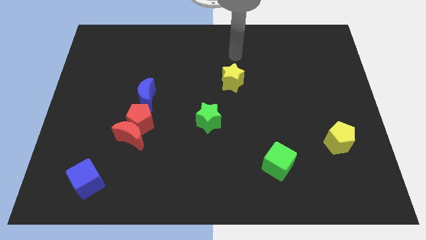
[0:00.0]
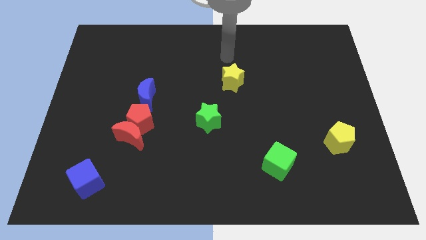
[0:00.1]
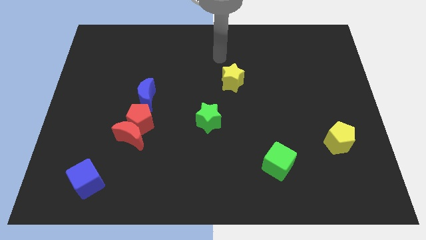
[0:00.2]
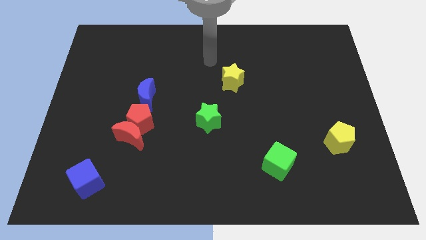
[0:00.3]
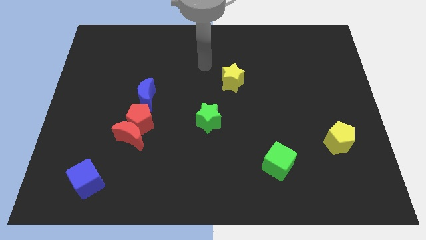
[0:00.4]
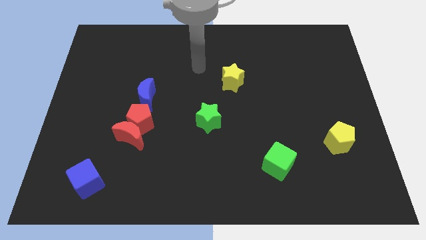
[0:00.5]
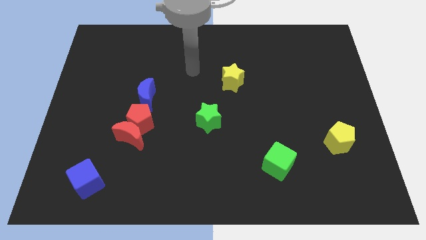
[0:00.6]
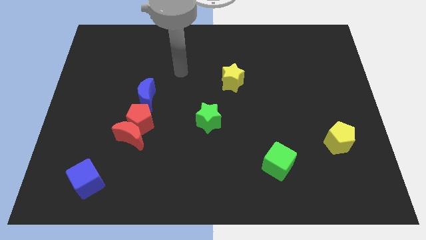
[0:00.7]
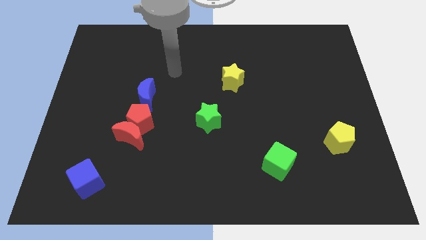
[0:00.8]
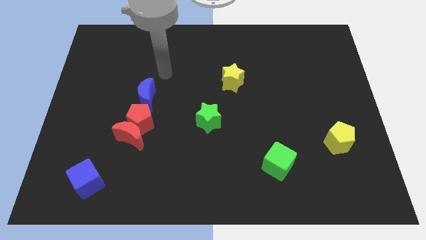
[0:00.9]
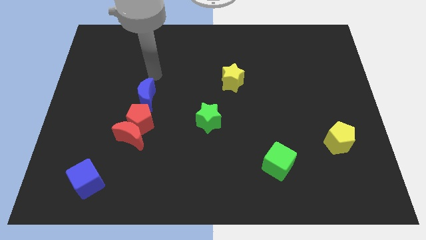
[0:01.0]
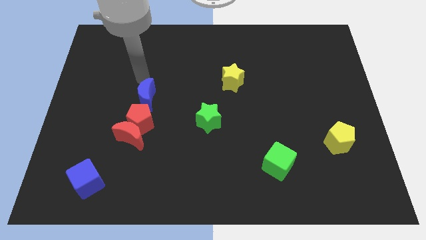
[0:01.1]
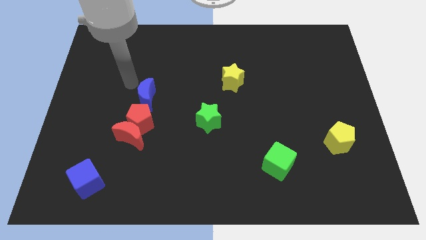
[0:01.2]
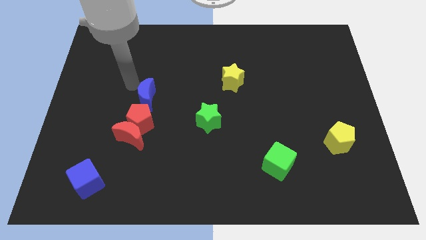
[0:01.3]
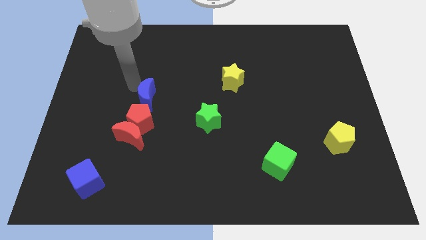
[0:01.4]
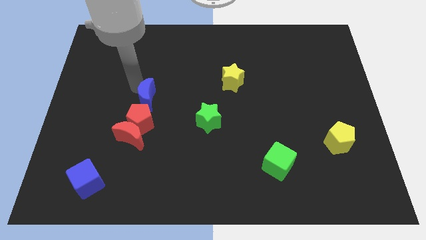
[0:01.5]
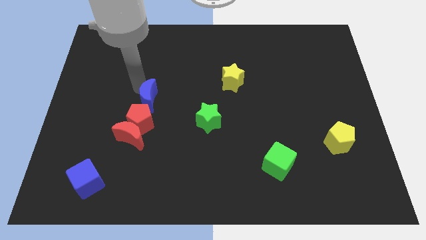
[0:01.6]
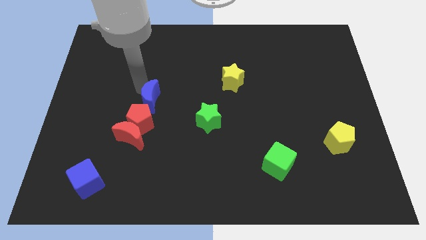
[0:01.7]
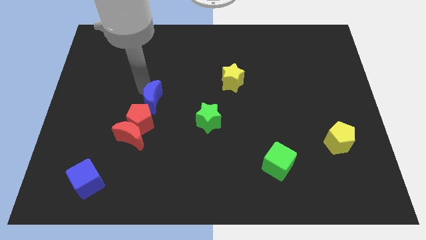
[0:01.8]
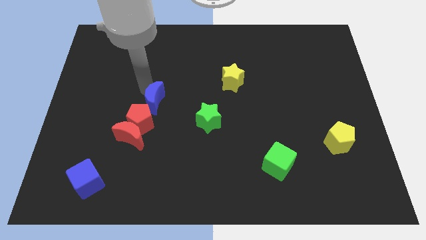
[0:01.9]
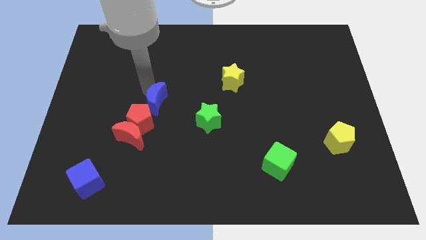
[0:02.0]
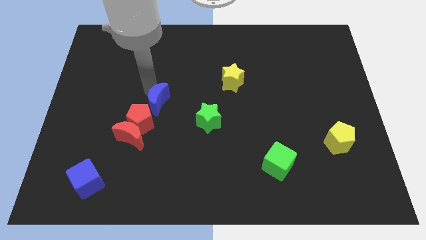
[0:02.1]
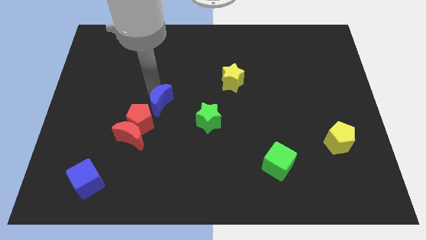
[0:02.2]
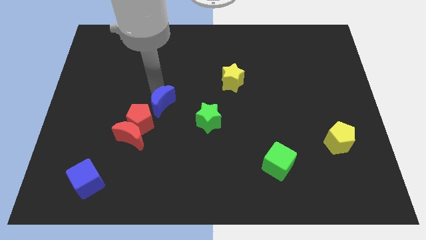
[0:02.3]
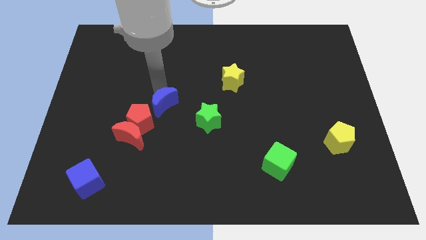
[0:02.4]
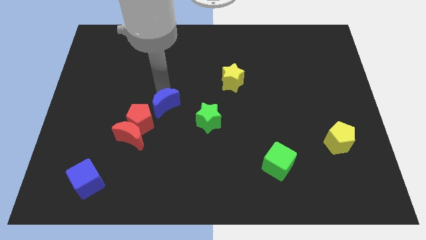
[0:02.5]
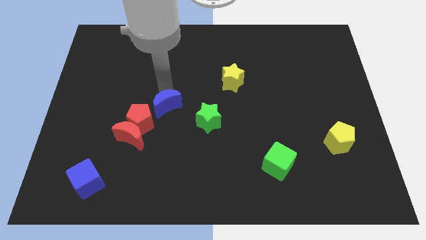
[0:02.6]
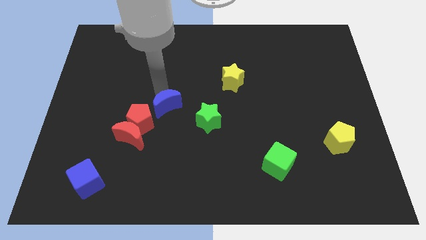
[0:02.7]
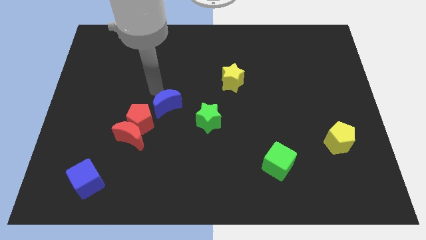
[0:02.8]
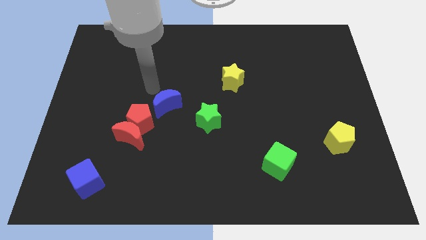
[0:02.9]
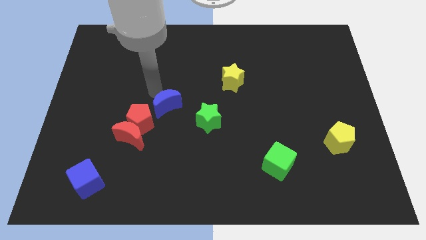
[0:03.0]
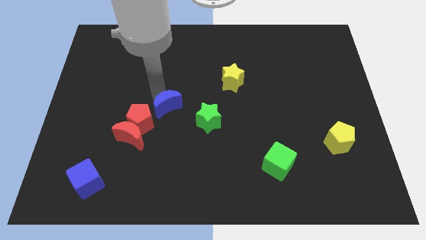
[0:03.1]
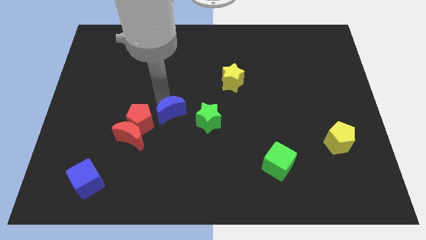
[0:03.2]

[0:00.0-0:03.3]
slightly move the blue moon downwards and to the right diagonally

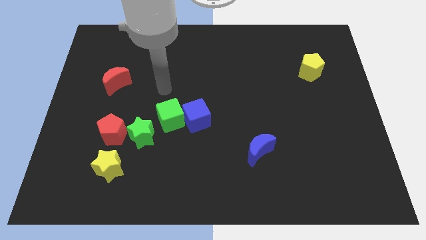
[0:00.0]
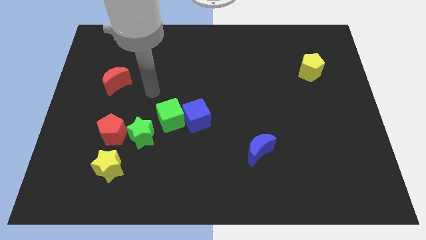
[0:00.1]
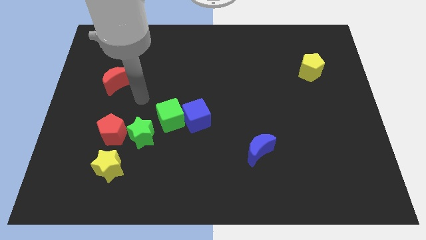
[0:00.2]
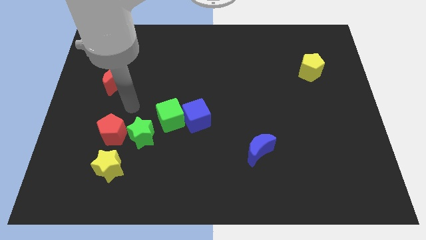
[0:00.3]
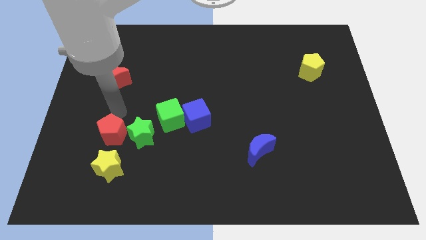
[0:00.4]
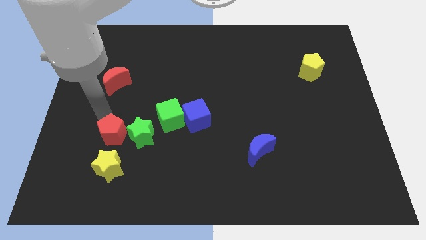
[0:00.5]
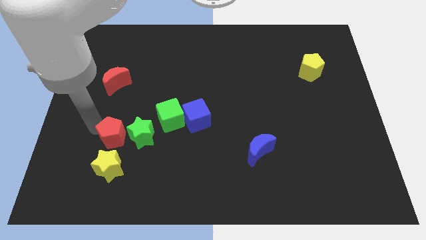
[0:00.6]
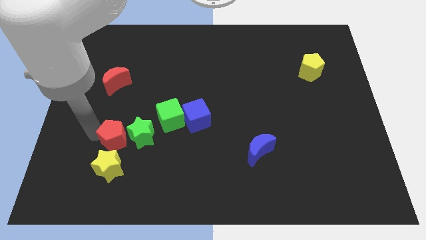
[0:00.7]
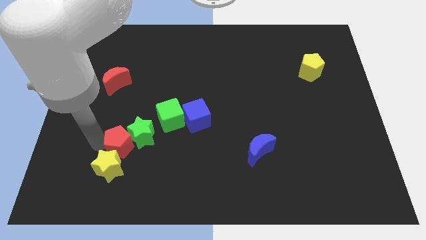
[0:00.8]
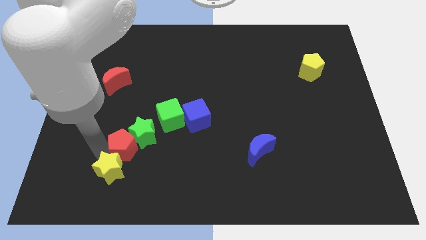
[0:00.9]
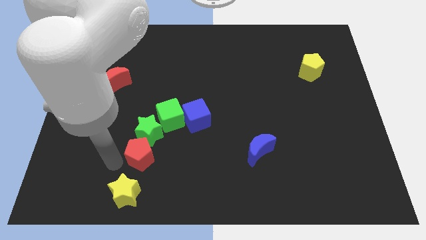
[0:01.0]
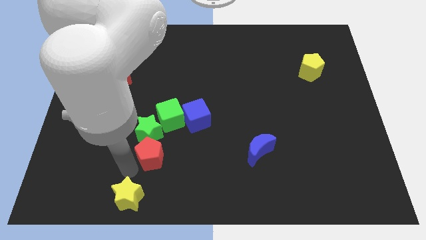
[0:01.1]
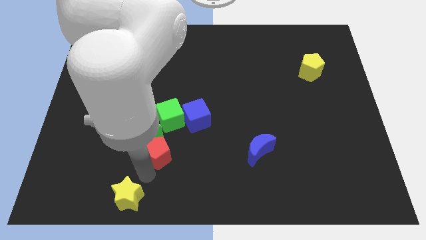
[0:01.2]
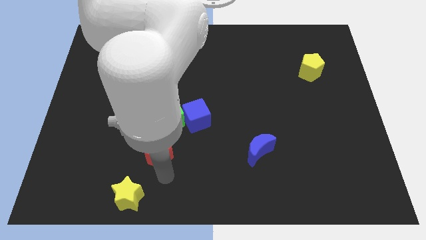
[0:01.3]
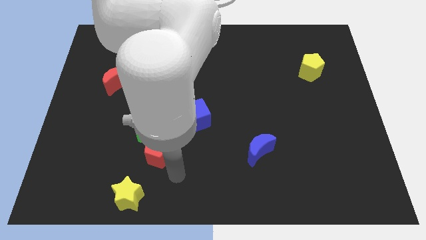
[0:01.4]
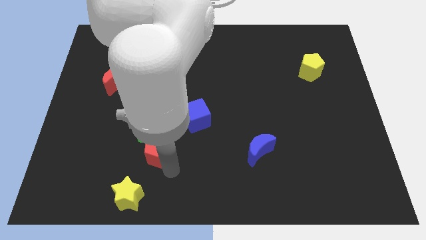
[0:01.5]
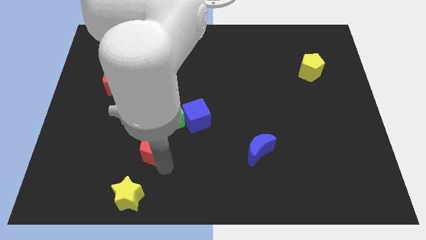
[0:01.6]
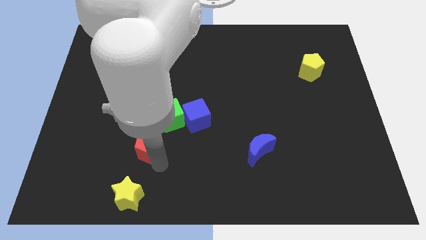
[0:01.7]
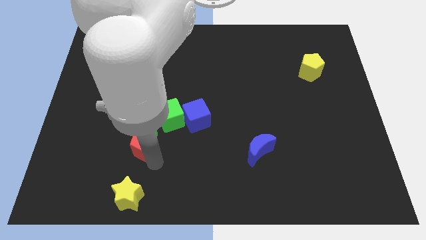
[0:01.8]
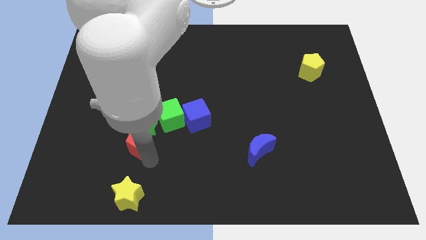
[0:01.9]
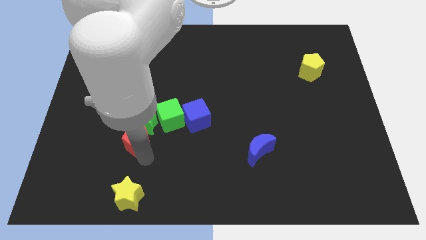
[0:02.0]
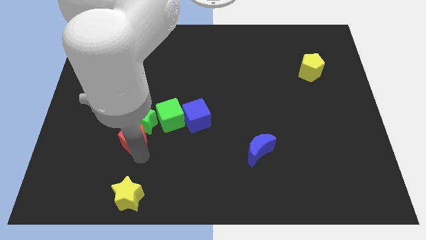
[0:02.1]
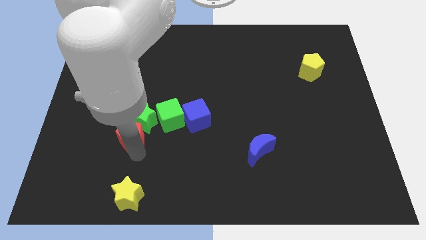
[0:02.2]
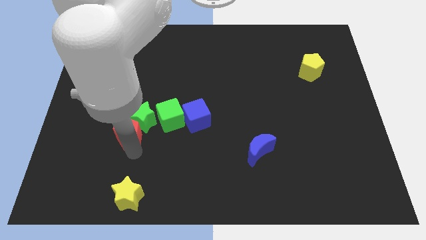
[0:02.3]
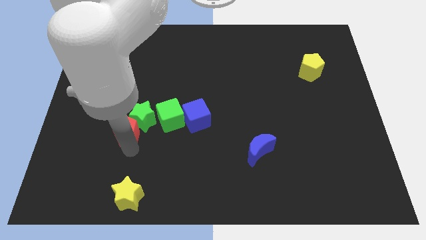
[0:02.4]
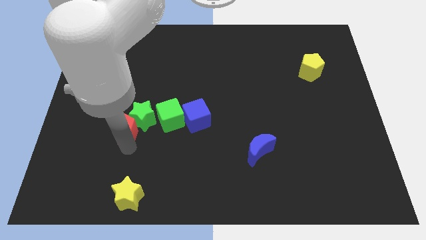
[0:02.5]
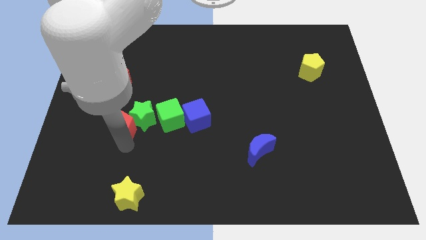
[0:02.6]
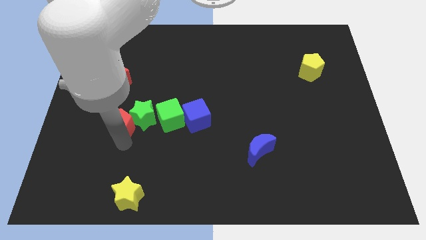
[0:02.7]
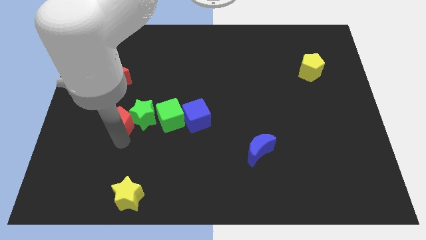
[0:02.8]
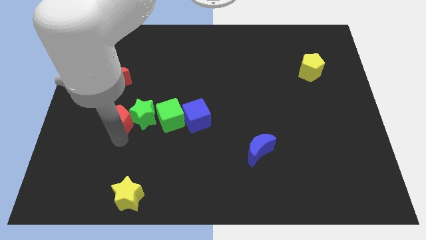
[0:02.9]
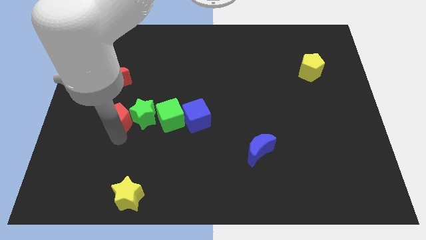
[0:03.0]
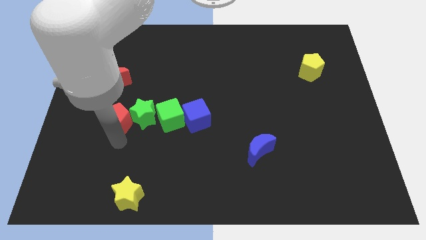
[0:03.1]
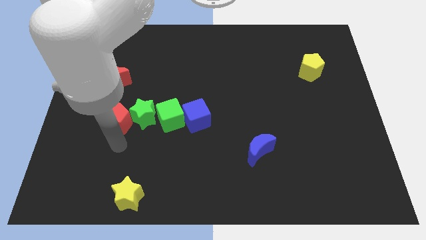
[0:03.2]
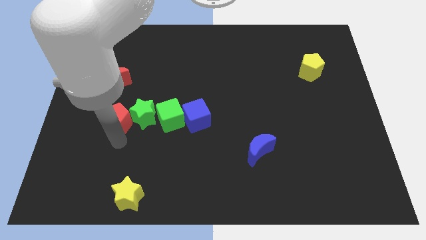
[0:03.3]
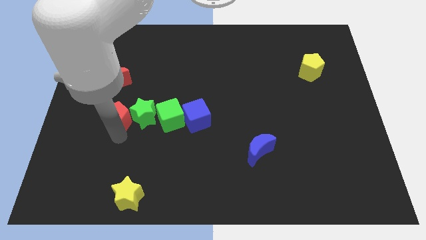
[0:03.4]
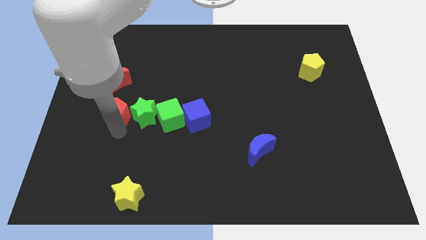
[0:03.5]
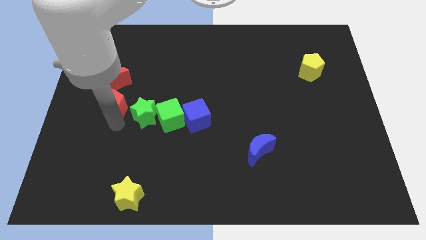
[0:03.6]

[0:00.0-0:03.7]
slide the red pentagon up a bit

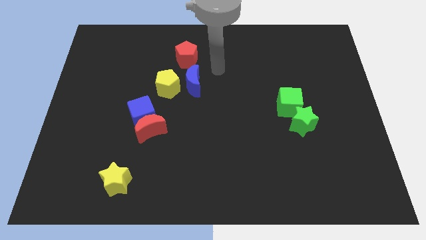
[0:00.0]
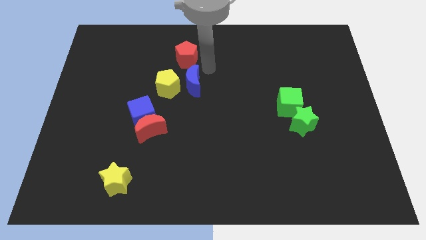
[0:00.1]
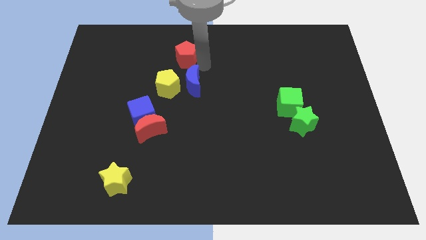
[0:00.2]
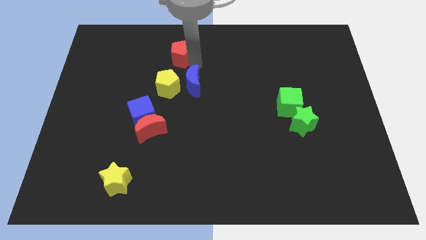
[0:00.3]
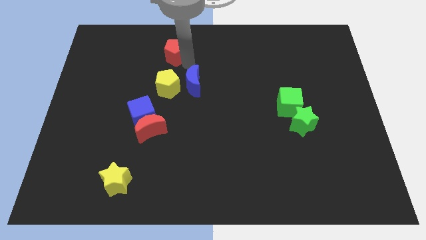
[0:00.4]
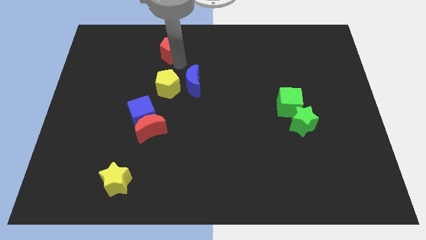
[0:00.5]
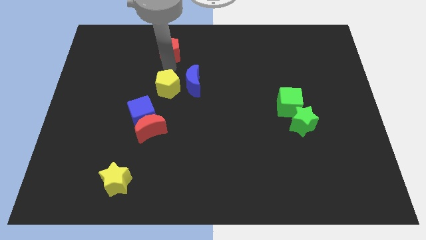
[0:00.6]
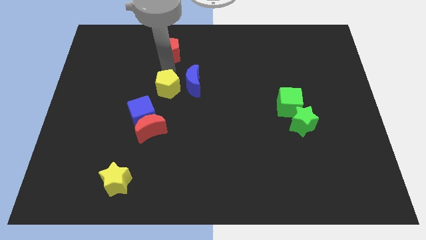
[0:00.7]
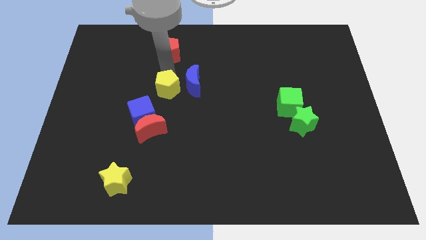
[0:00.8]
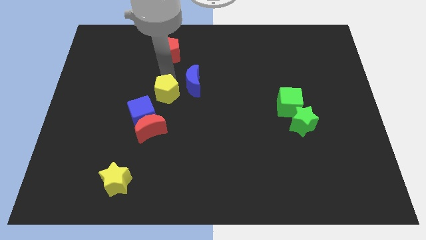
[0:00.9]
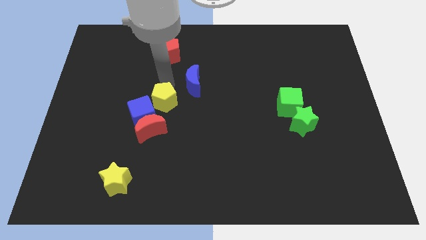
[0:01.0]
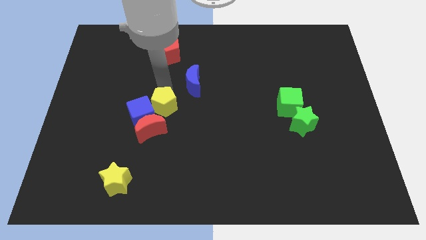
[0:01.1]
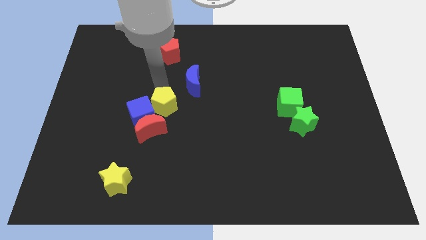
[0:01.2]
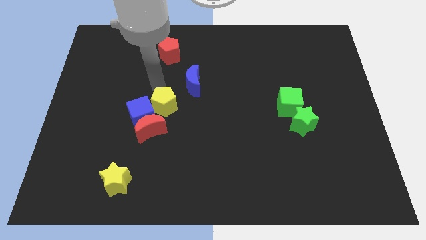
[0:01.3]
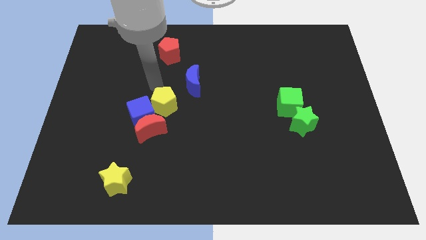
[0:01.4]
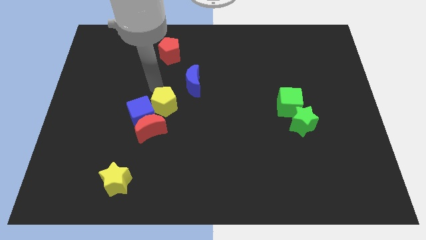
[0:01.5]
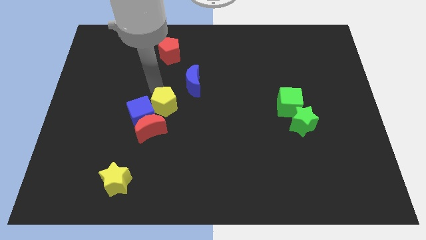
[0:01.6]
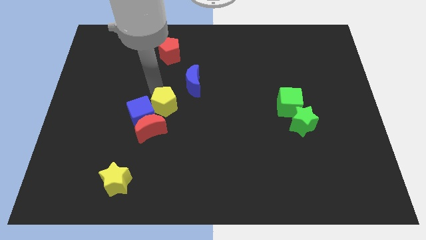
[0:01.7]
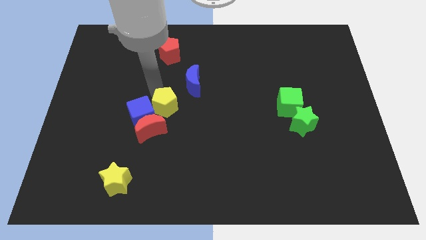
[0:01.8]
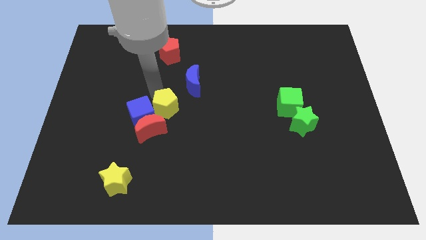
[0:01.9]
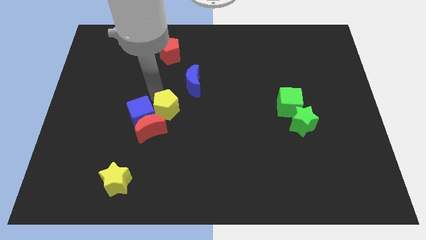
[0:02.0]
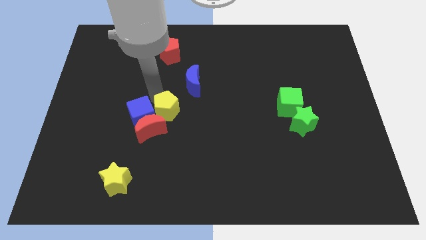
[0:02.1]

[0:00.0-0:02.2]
push the yellow pentagon somewhat downwards
